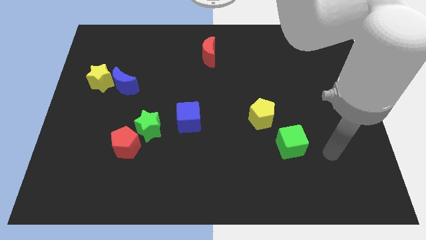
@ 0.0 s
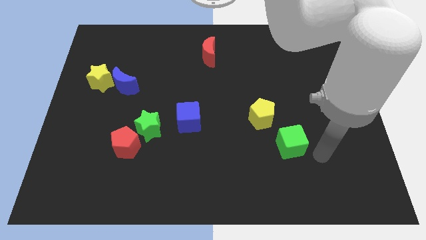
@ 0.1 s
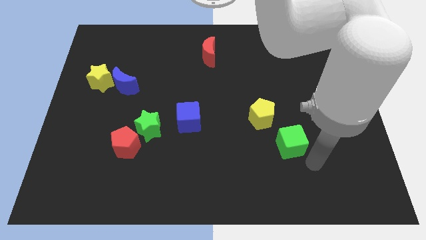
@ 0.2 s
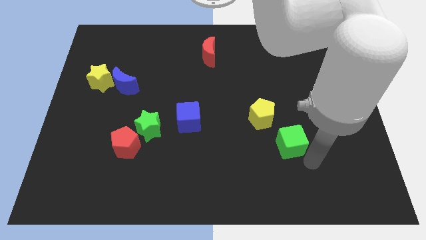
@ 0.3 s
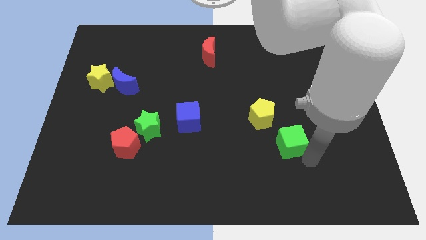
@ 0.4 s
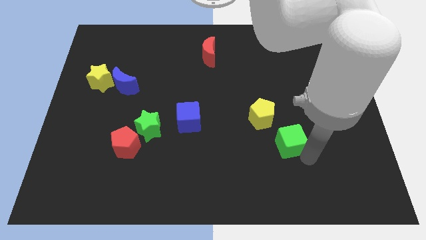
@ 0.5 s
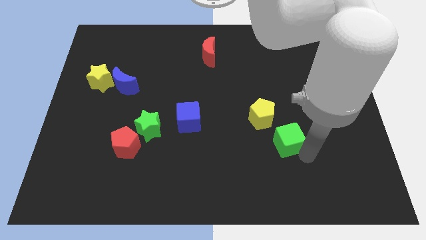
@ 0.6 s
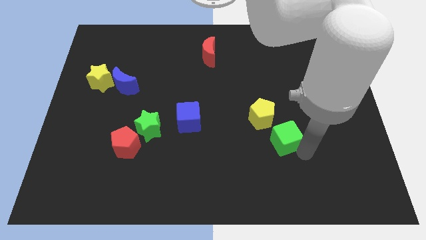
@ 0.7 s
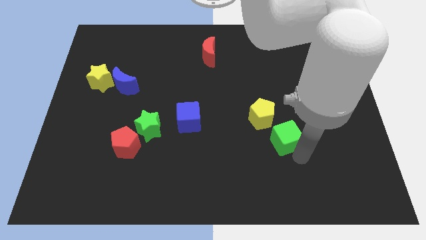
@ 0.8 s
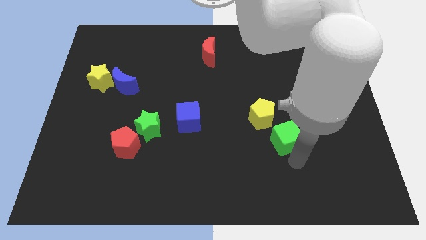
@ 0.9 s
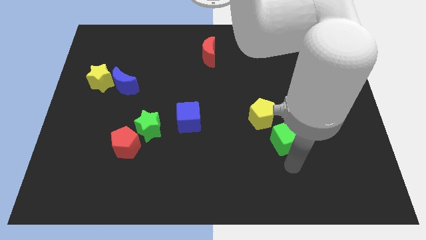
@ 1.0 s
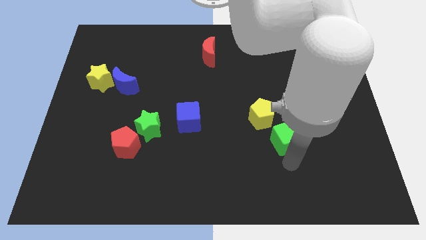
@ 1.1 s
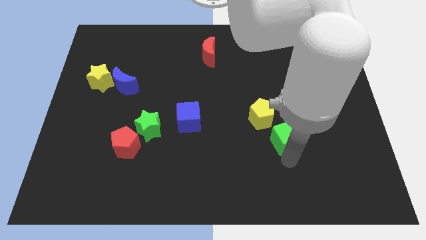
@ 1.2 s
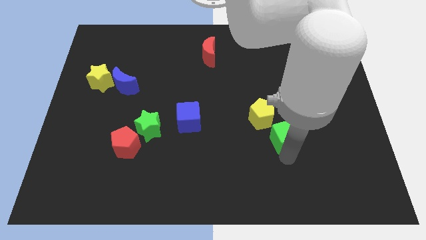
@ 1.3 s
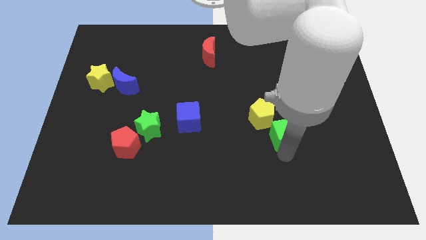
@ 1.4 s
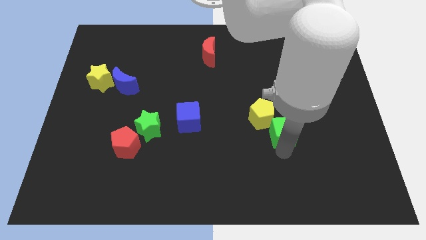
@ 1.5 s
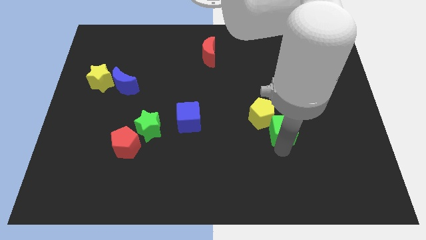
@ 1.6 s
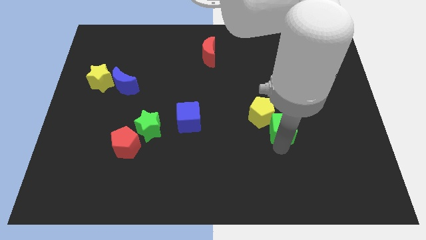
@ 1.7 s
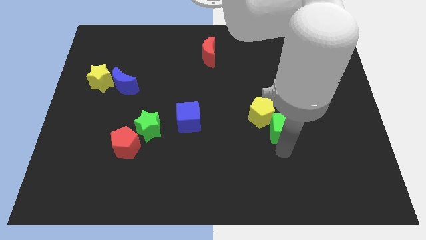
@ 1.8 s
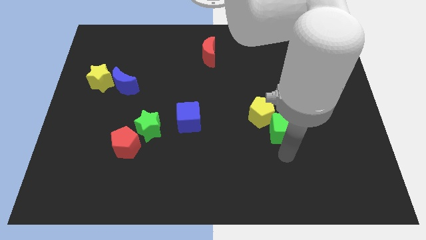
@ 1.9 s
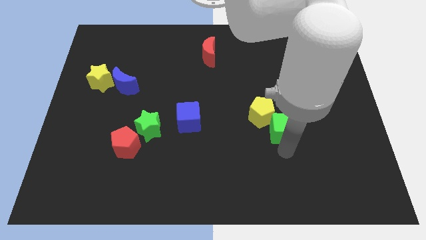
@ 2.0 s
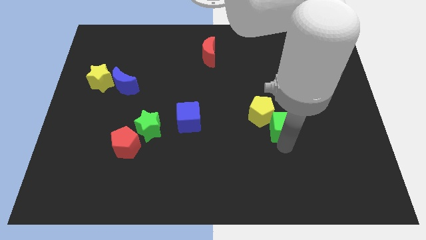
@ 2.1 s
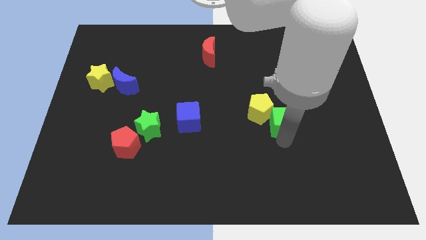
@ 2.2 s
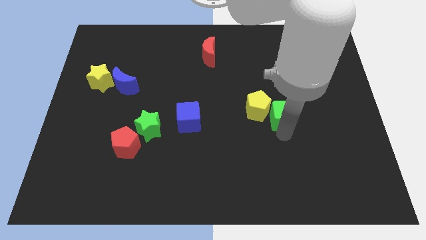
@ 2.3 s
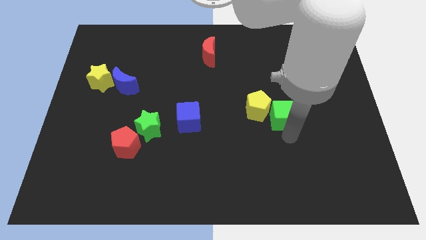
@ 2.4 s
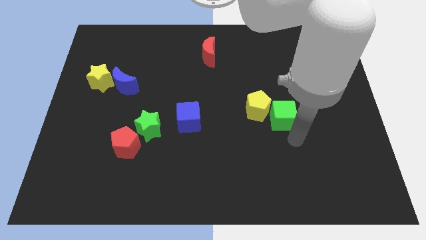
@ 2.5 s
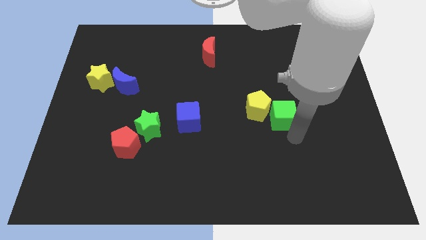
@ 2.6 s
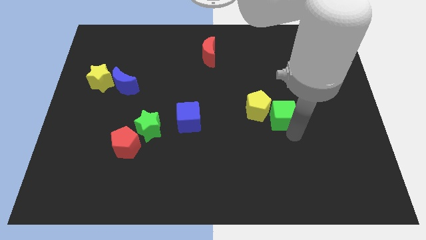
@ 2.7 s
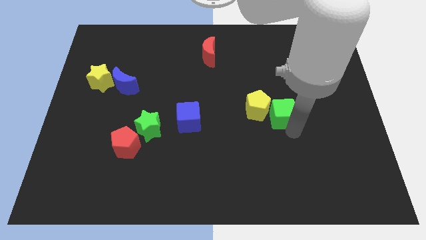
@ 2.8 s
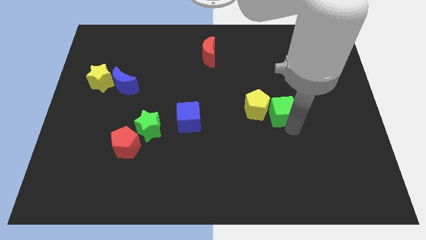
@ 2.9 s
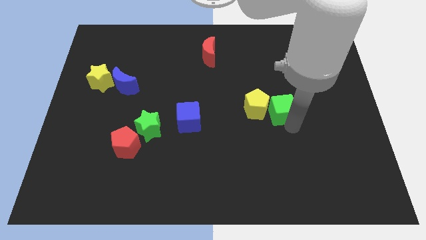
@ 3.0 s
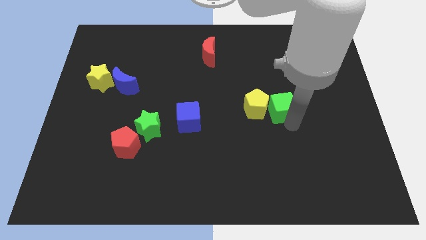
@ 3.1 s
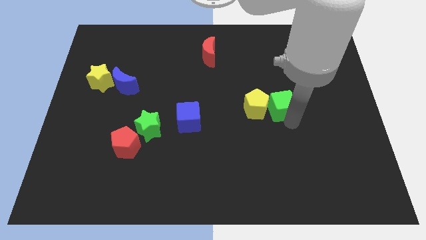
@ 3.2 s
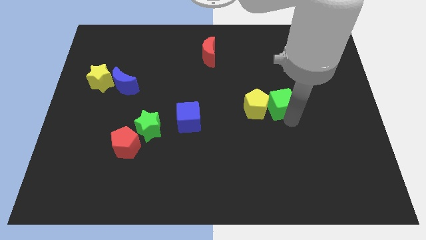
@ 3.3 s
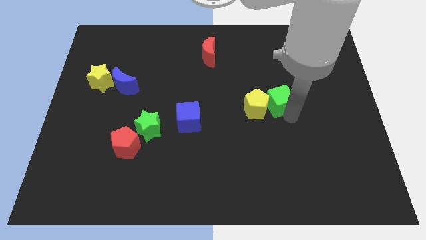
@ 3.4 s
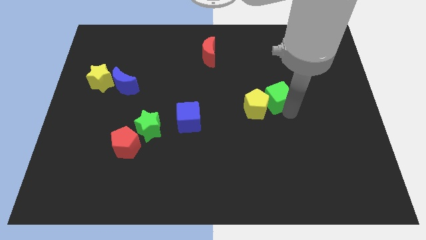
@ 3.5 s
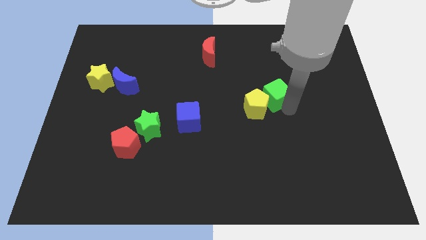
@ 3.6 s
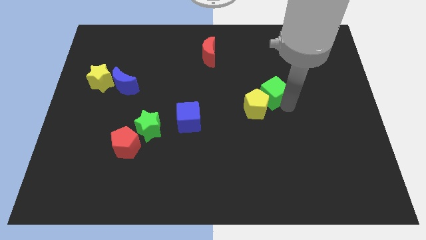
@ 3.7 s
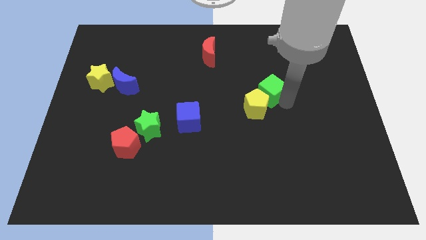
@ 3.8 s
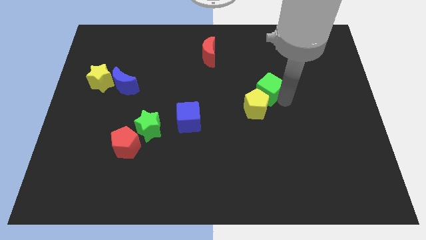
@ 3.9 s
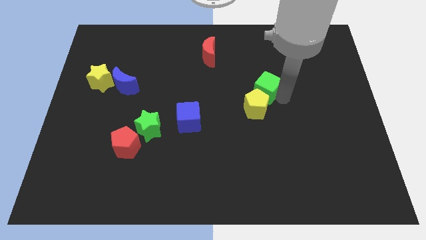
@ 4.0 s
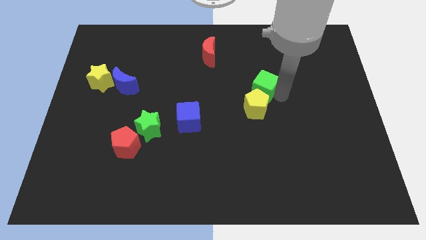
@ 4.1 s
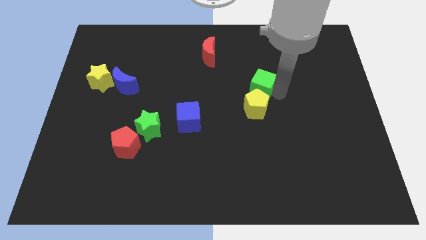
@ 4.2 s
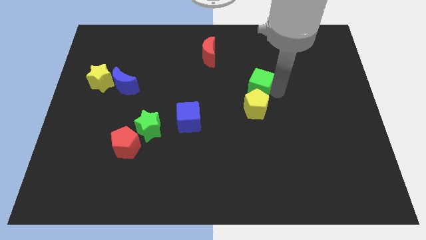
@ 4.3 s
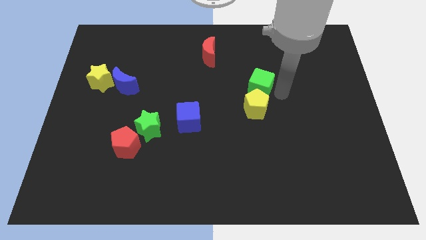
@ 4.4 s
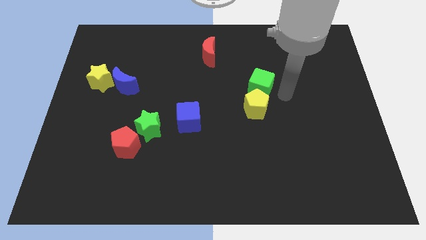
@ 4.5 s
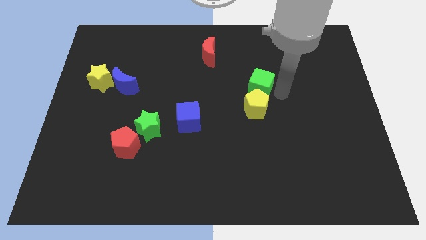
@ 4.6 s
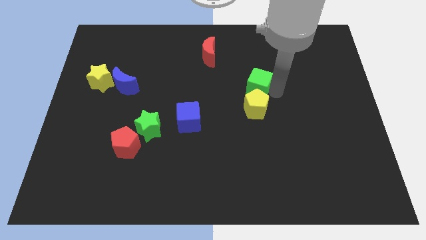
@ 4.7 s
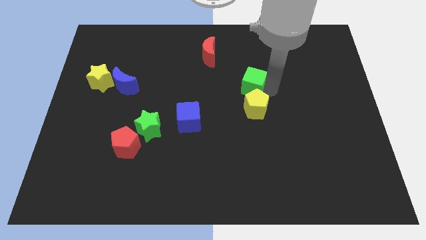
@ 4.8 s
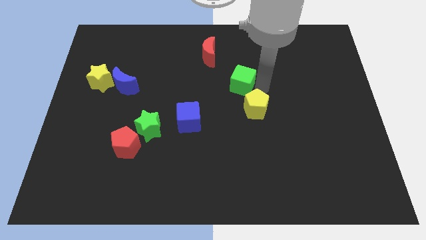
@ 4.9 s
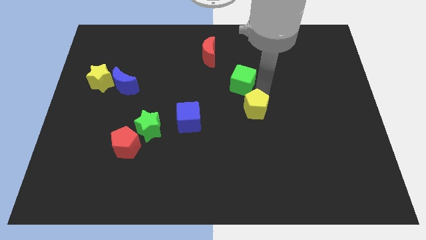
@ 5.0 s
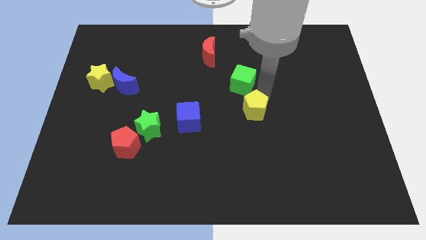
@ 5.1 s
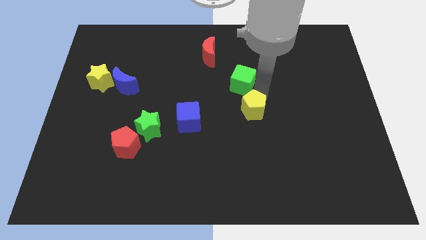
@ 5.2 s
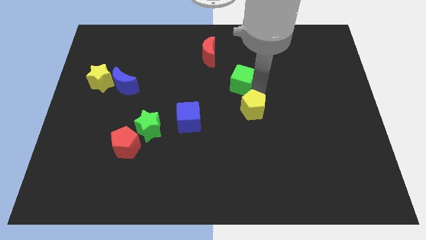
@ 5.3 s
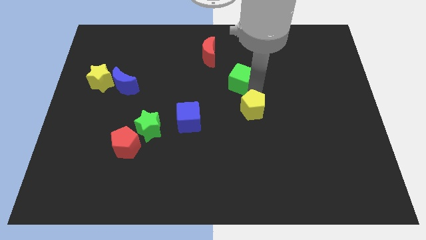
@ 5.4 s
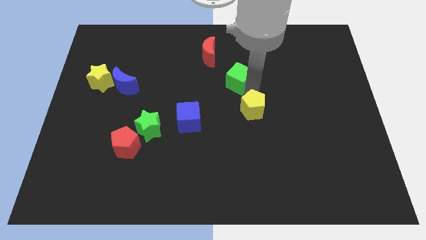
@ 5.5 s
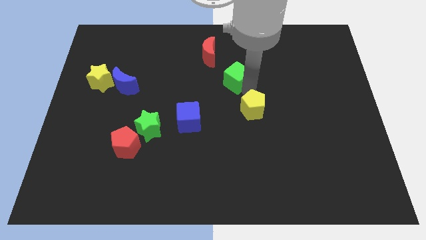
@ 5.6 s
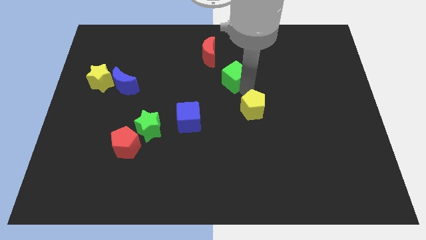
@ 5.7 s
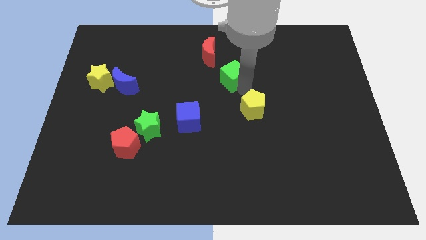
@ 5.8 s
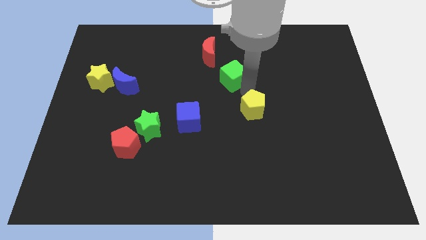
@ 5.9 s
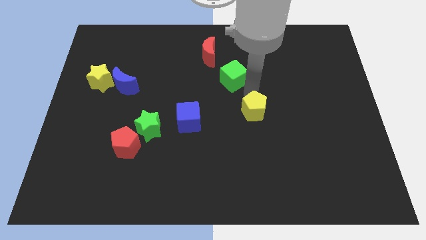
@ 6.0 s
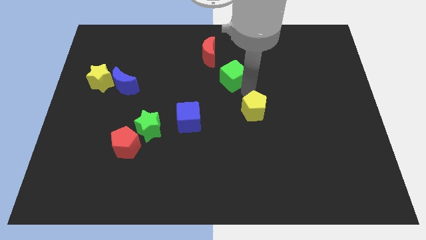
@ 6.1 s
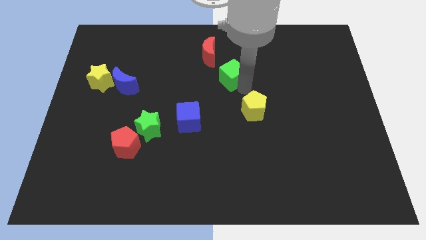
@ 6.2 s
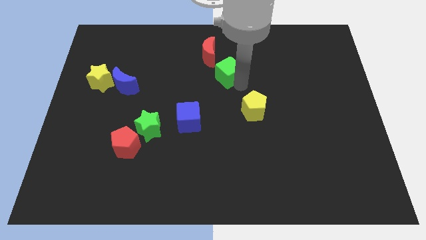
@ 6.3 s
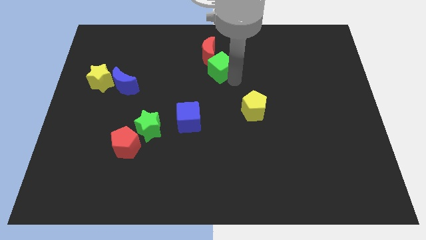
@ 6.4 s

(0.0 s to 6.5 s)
move the green cube to the red moon

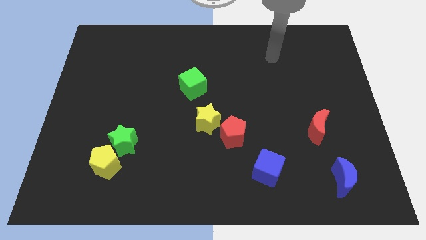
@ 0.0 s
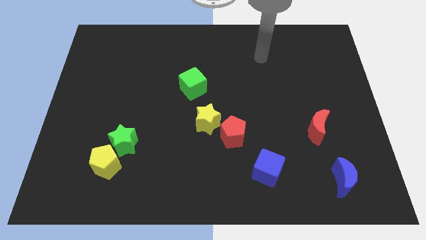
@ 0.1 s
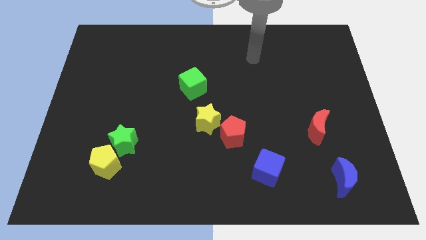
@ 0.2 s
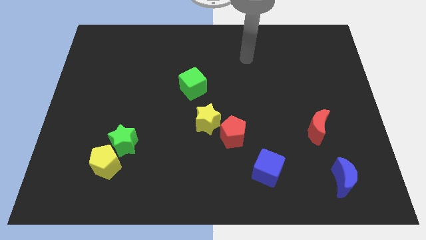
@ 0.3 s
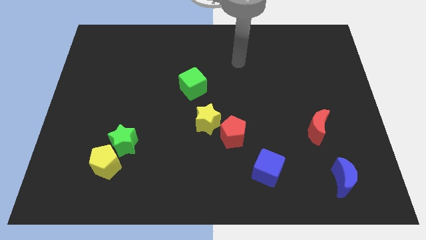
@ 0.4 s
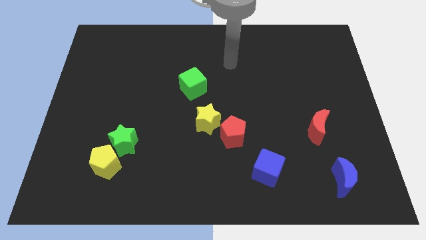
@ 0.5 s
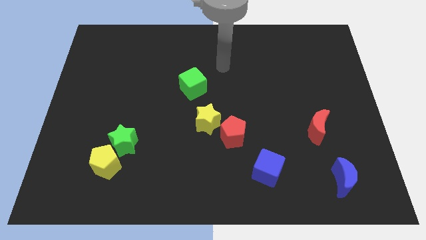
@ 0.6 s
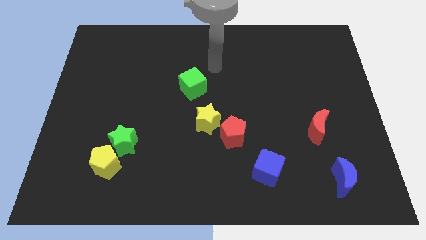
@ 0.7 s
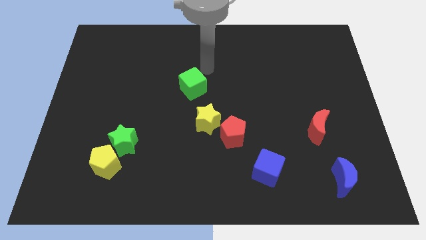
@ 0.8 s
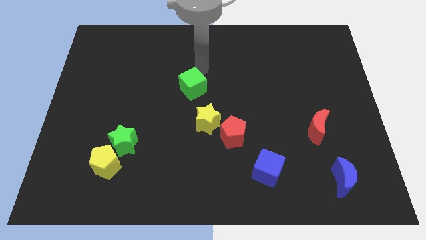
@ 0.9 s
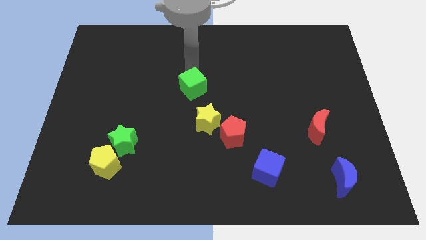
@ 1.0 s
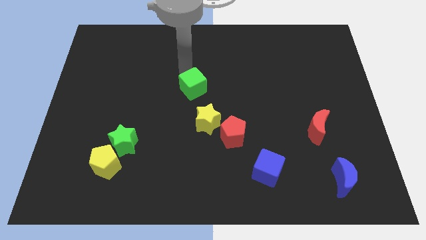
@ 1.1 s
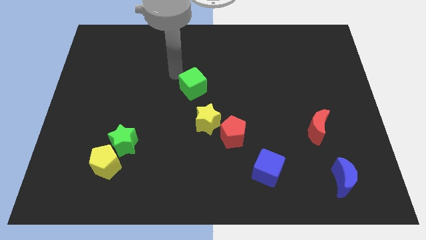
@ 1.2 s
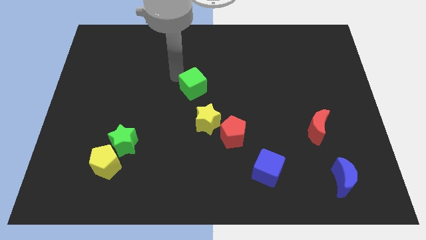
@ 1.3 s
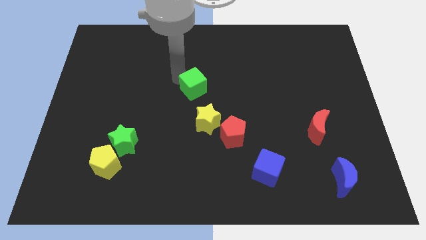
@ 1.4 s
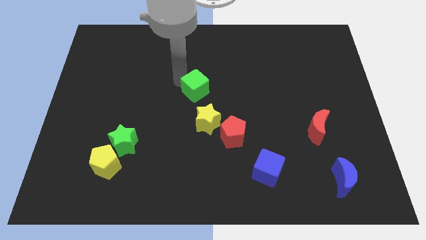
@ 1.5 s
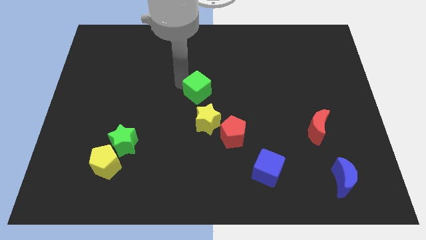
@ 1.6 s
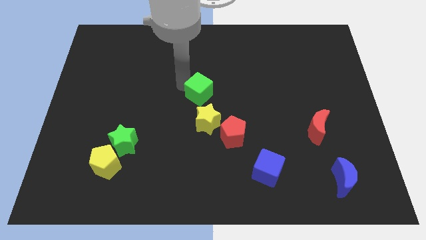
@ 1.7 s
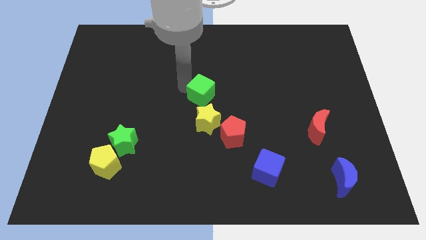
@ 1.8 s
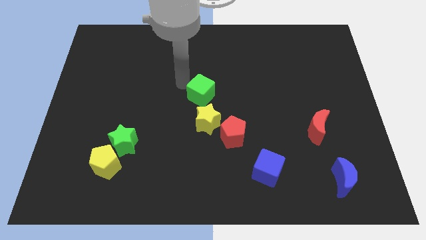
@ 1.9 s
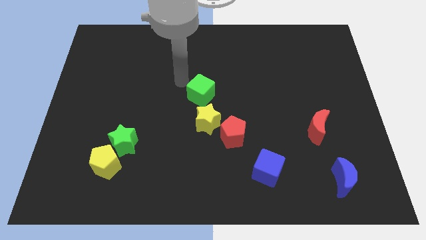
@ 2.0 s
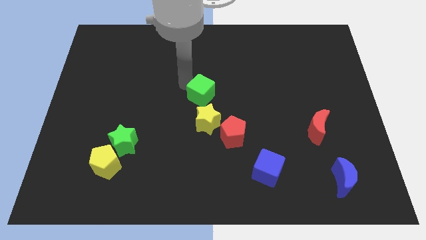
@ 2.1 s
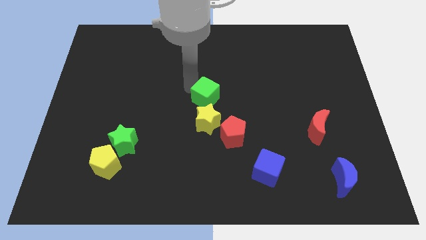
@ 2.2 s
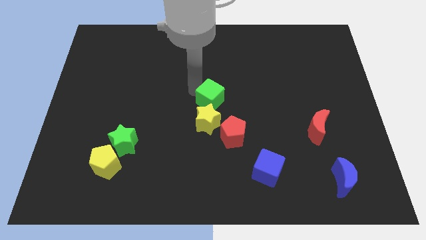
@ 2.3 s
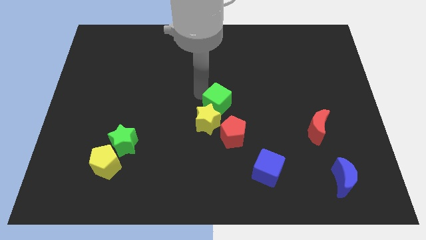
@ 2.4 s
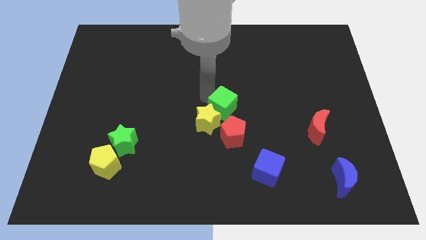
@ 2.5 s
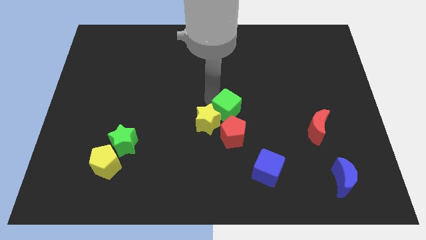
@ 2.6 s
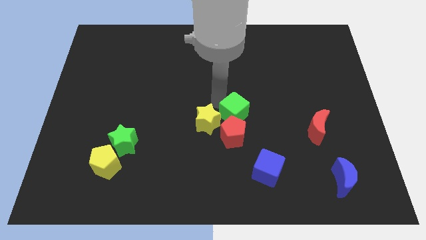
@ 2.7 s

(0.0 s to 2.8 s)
push the green cube close to the red pentagon
